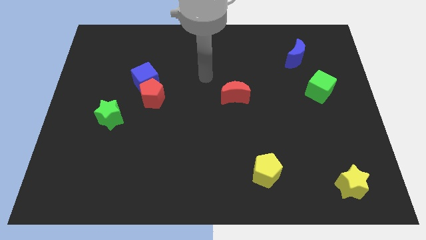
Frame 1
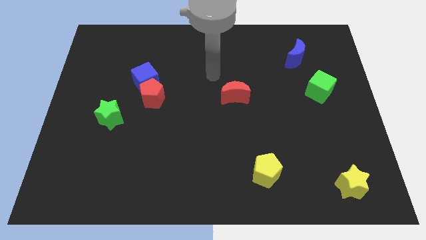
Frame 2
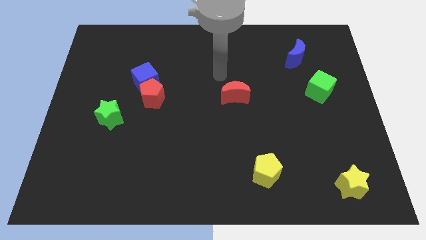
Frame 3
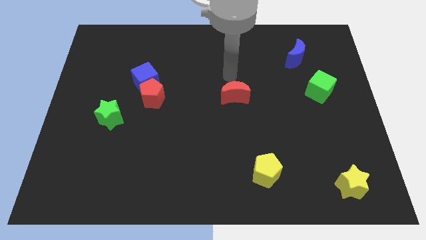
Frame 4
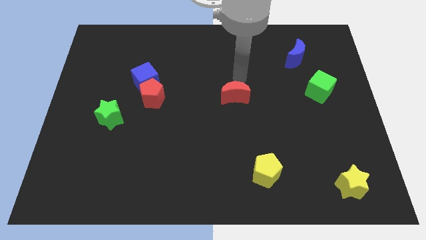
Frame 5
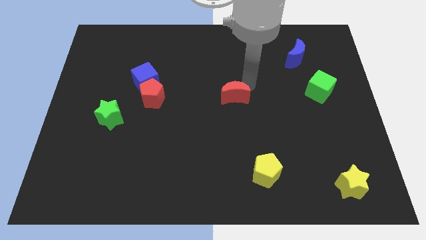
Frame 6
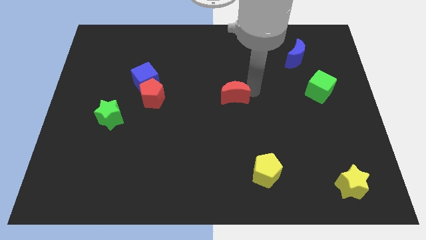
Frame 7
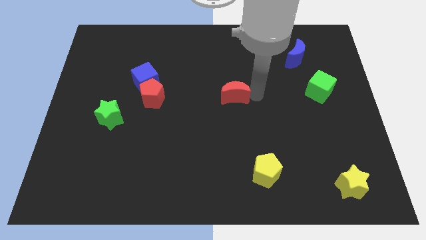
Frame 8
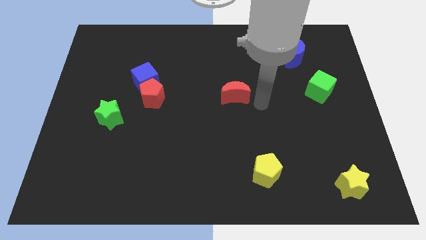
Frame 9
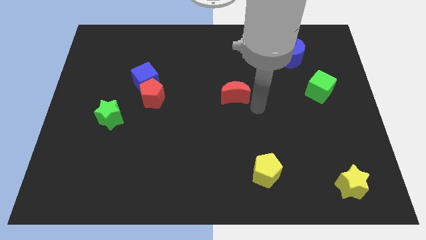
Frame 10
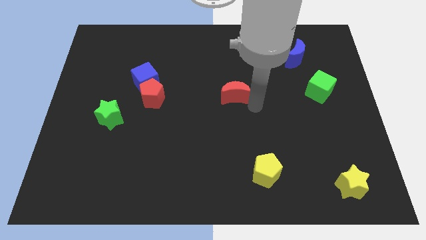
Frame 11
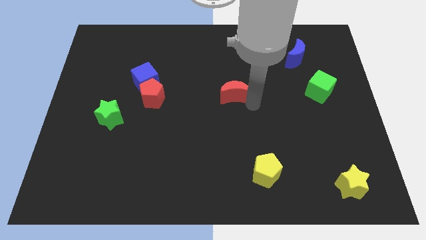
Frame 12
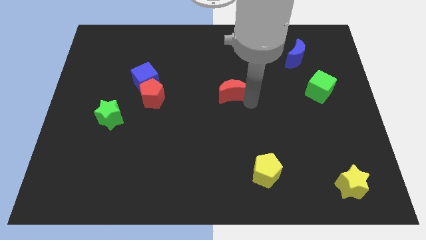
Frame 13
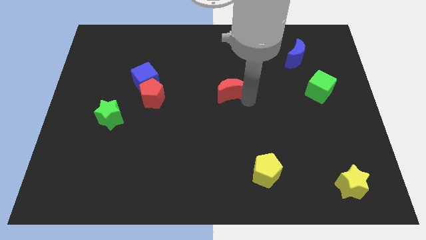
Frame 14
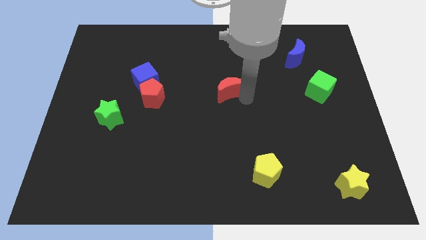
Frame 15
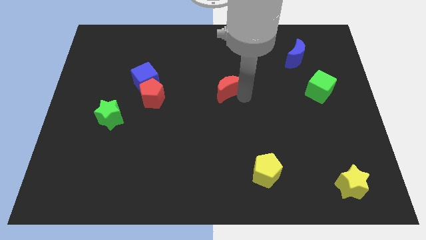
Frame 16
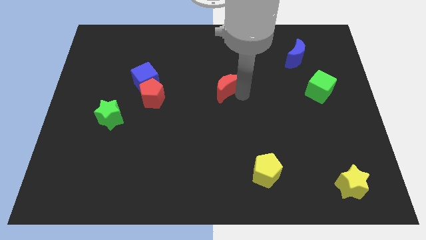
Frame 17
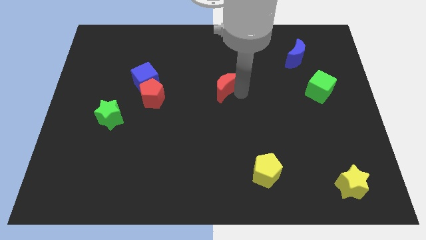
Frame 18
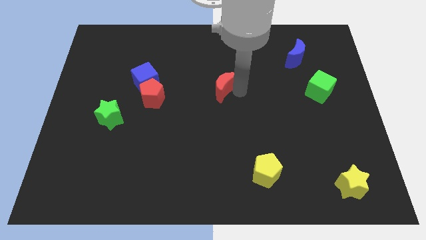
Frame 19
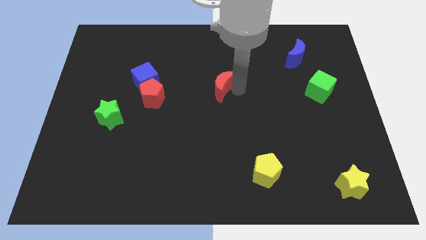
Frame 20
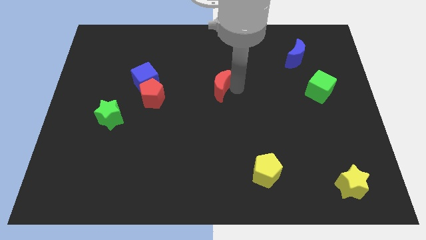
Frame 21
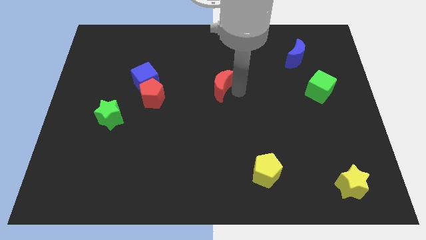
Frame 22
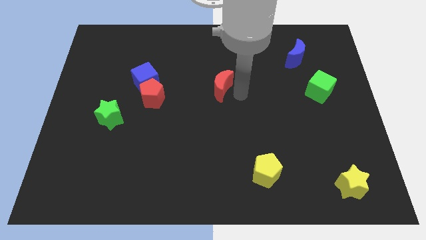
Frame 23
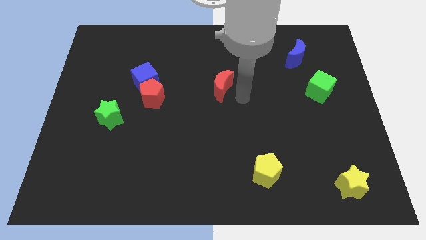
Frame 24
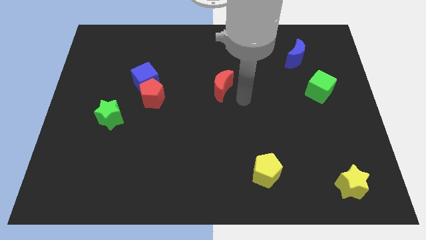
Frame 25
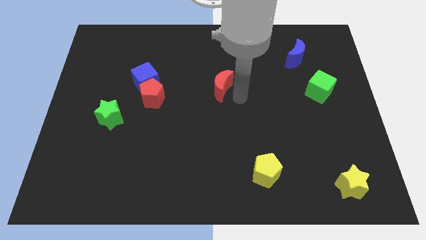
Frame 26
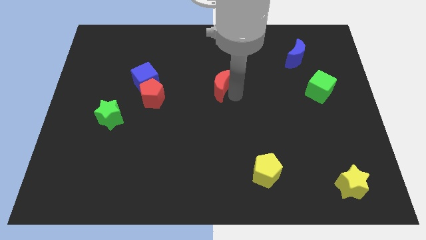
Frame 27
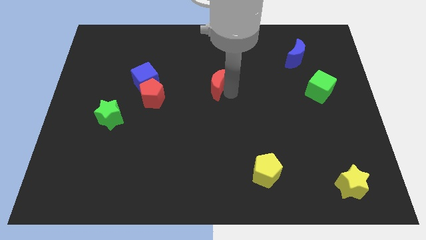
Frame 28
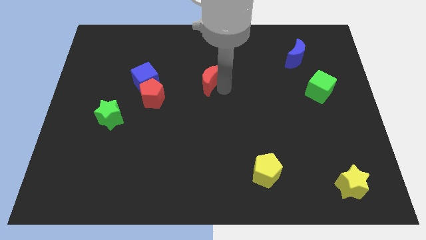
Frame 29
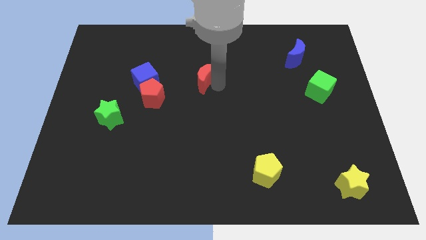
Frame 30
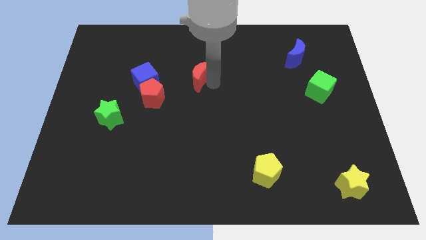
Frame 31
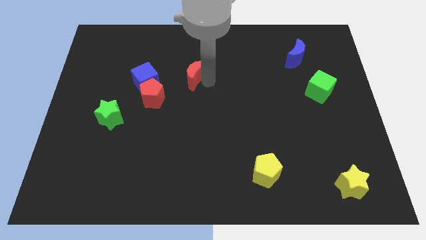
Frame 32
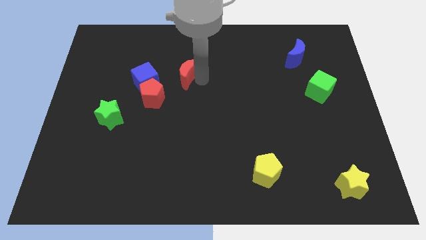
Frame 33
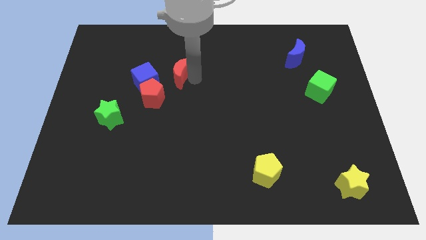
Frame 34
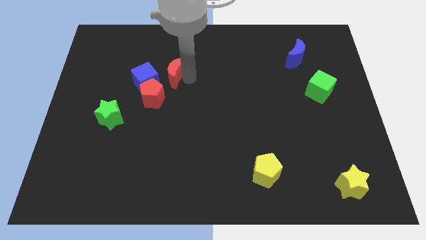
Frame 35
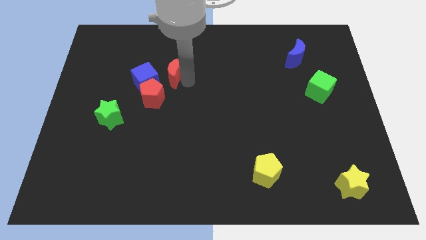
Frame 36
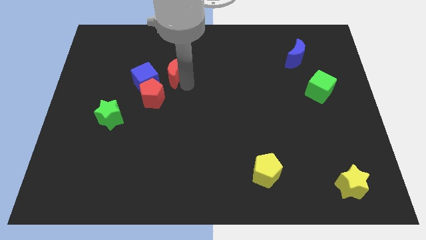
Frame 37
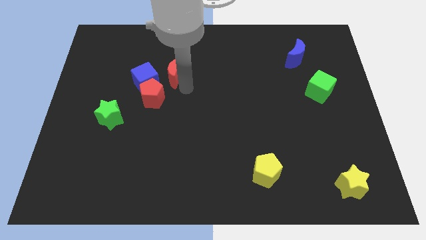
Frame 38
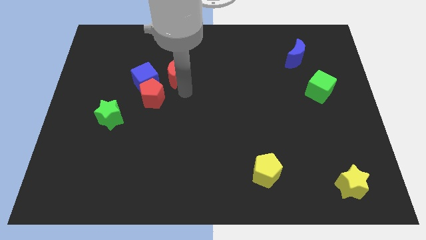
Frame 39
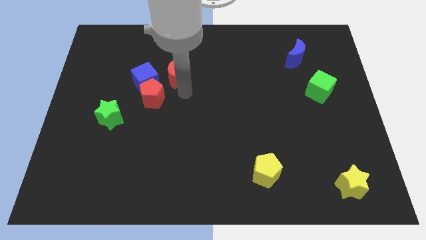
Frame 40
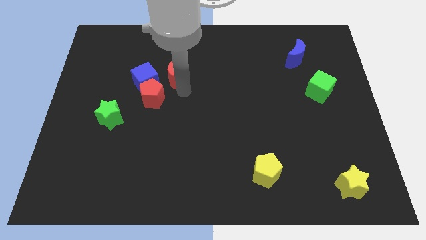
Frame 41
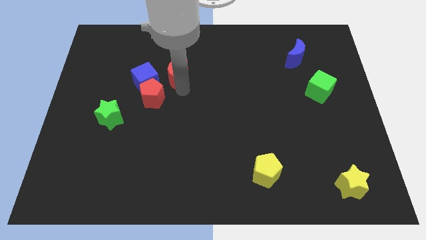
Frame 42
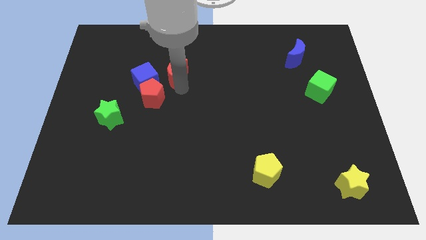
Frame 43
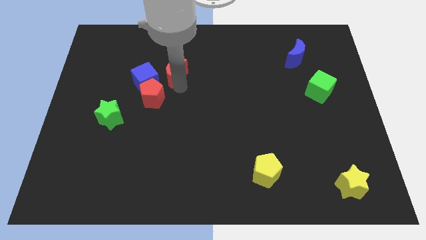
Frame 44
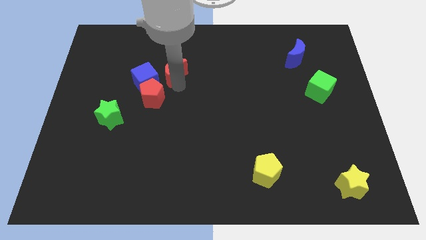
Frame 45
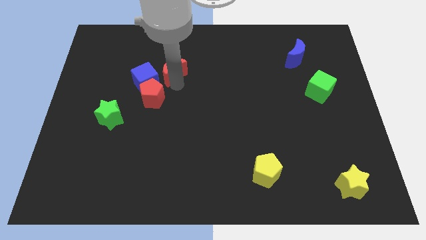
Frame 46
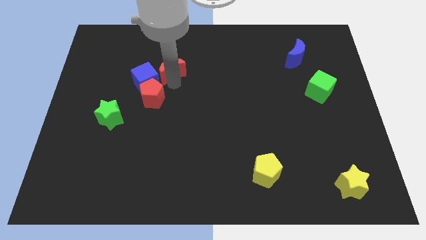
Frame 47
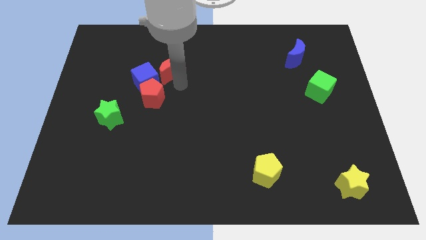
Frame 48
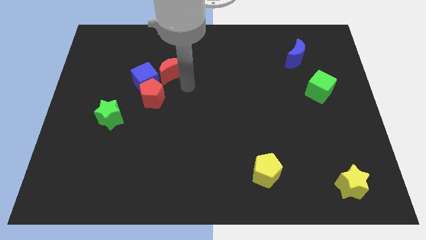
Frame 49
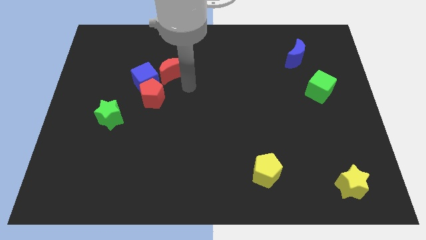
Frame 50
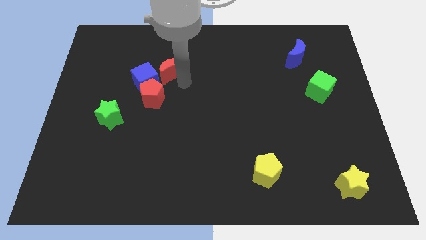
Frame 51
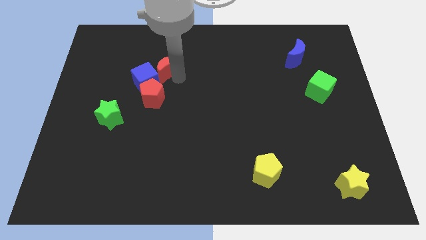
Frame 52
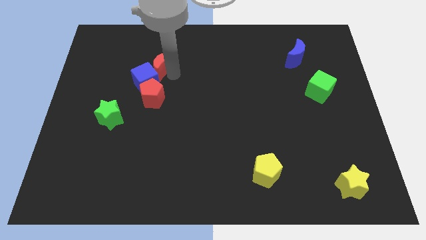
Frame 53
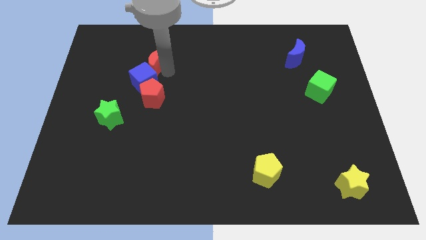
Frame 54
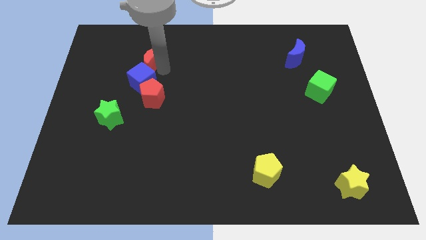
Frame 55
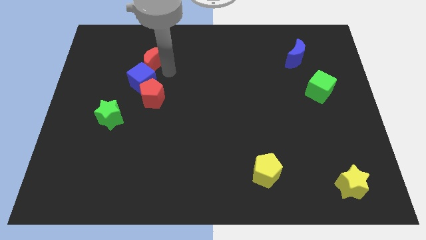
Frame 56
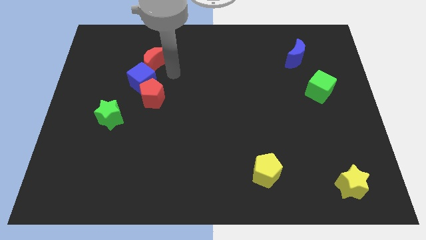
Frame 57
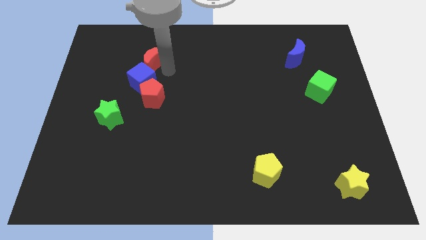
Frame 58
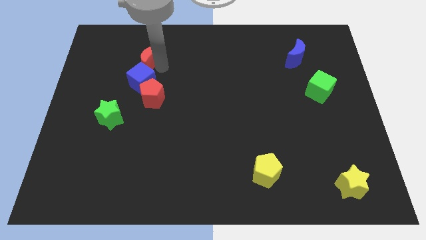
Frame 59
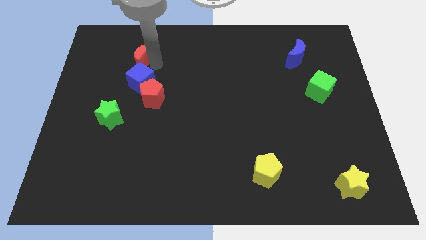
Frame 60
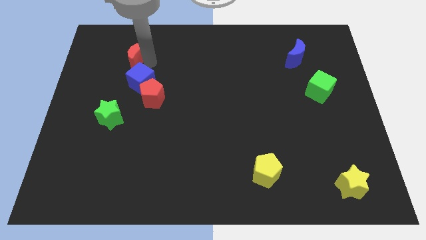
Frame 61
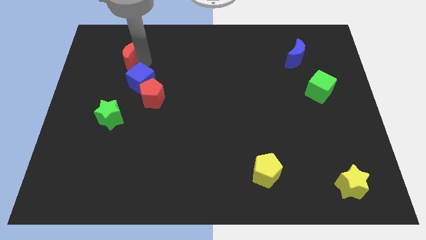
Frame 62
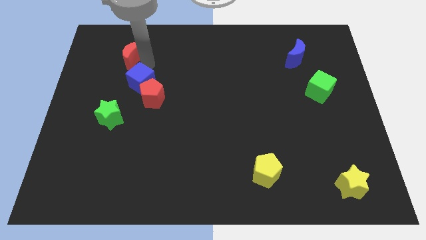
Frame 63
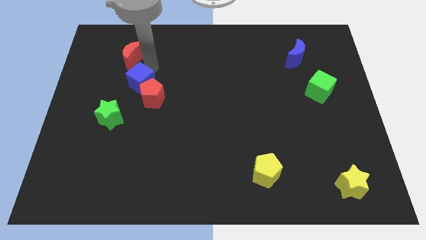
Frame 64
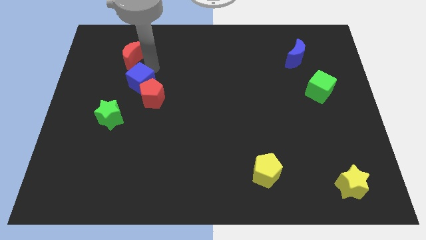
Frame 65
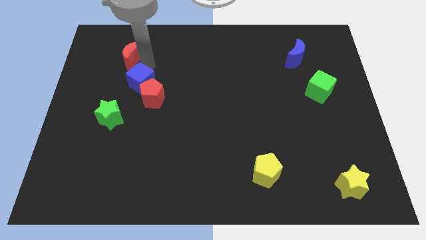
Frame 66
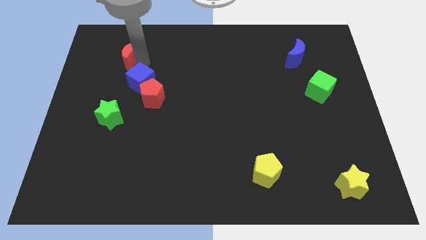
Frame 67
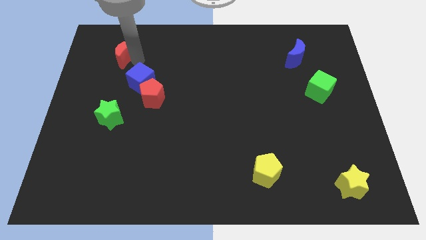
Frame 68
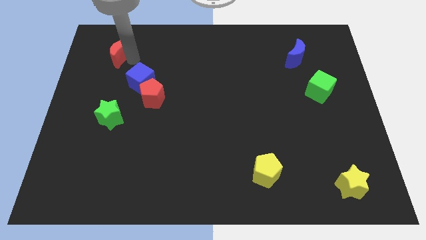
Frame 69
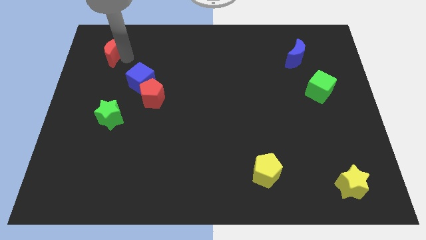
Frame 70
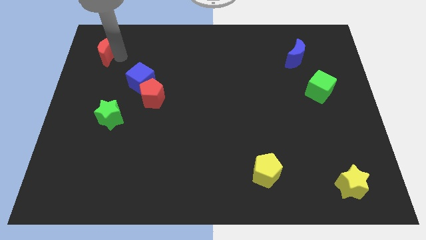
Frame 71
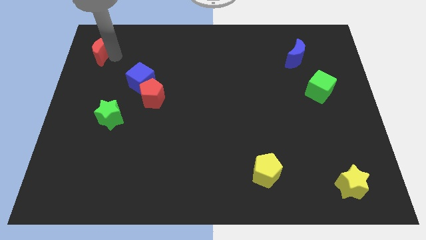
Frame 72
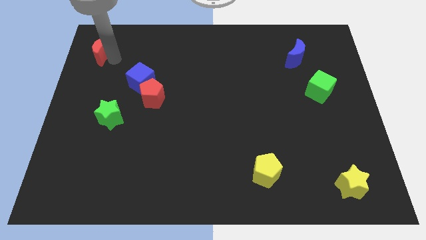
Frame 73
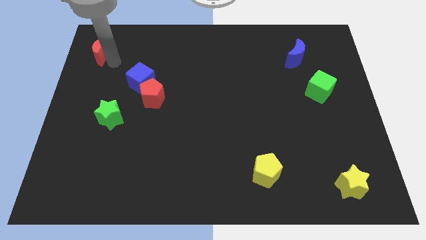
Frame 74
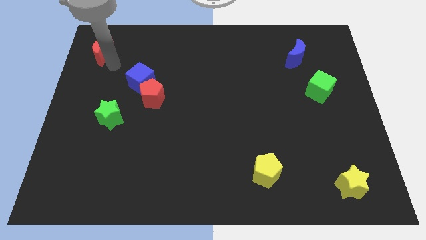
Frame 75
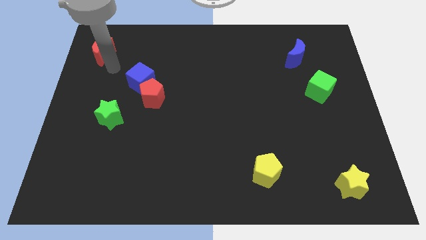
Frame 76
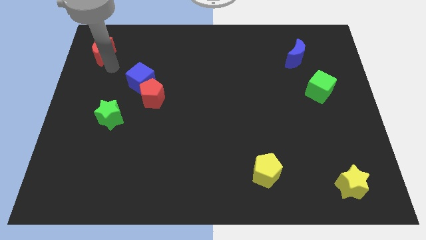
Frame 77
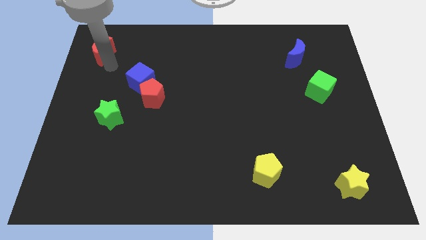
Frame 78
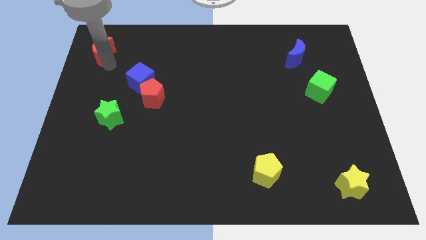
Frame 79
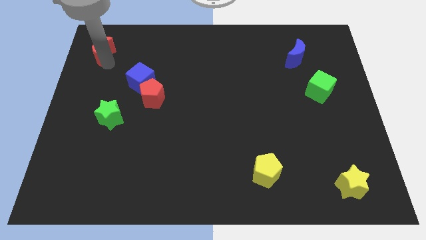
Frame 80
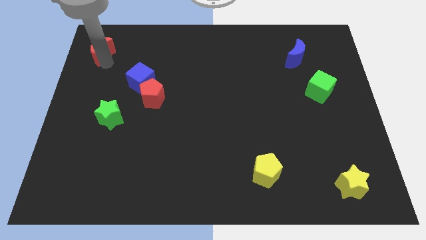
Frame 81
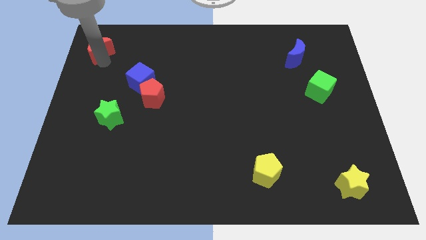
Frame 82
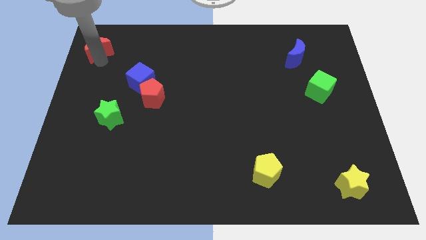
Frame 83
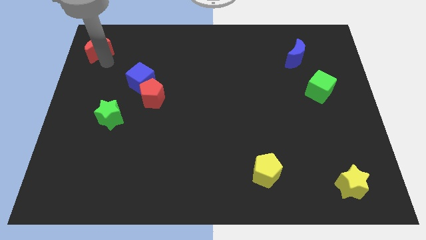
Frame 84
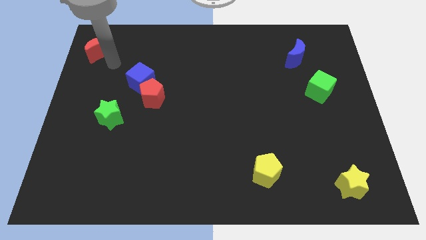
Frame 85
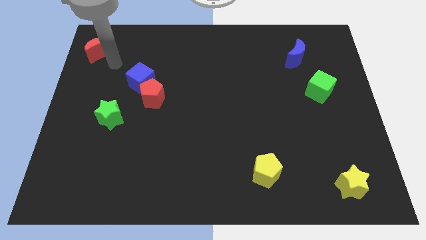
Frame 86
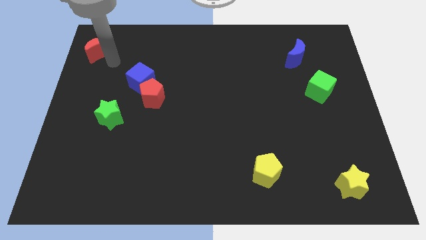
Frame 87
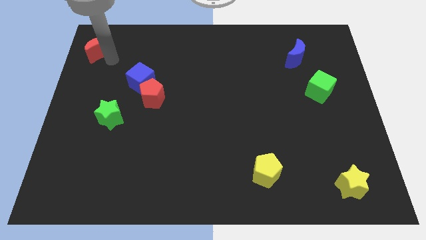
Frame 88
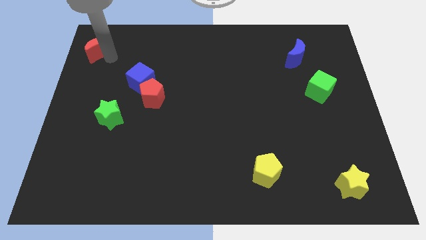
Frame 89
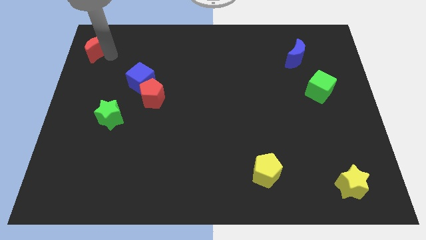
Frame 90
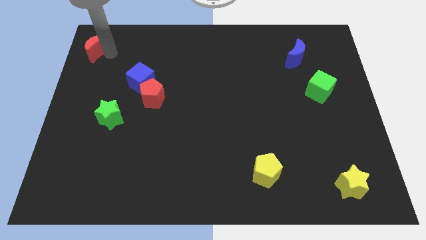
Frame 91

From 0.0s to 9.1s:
push the red moon to the top left
